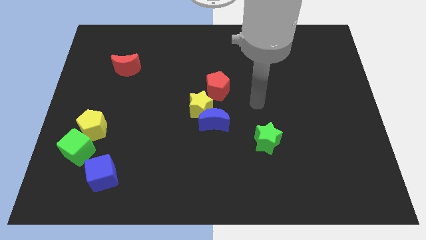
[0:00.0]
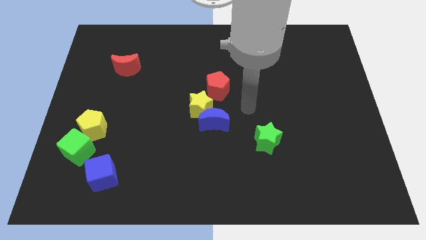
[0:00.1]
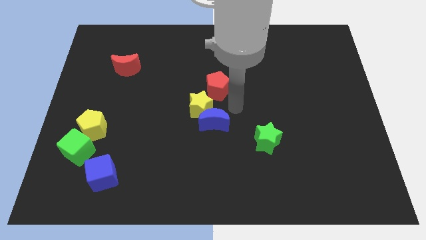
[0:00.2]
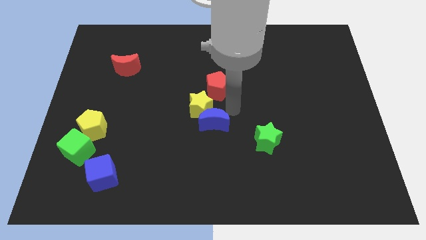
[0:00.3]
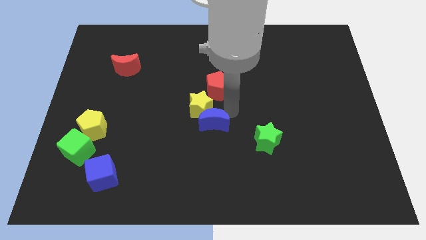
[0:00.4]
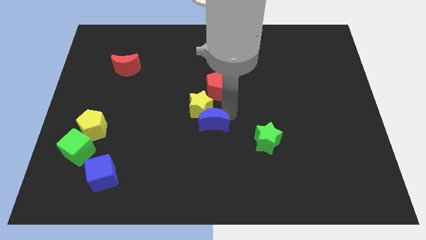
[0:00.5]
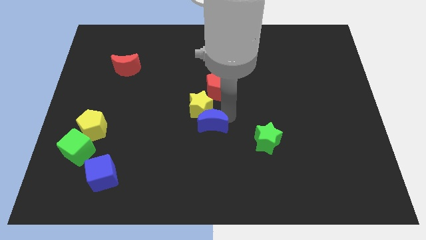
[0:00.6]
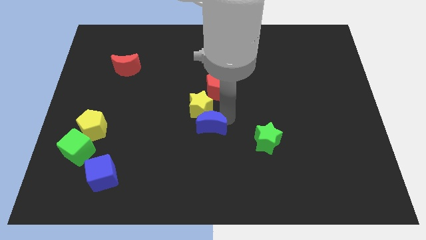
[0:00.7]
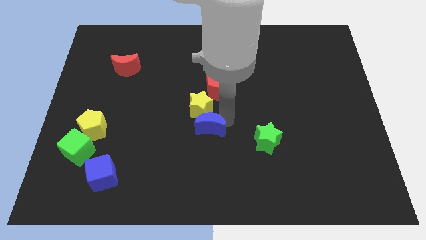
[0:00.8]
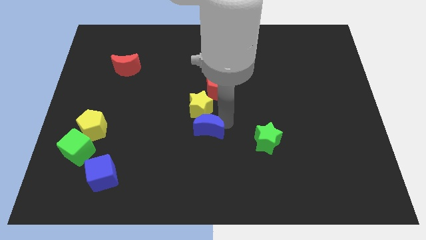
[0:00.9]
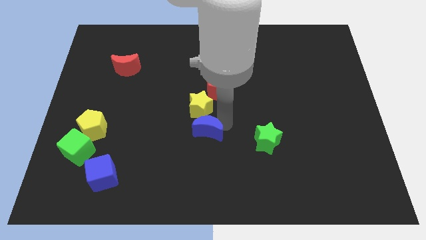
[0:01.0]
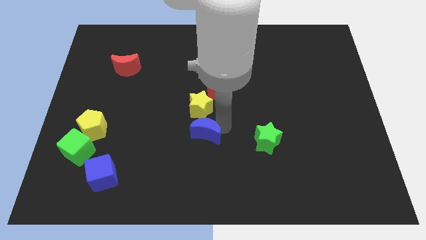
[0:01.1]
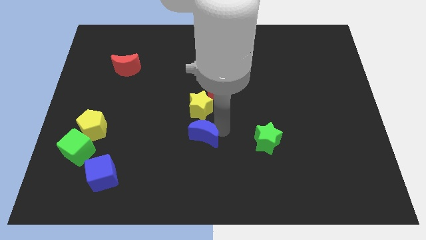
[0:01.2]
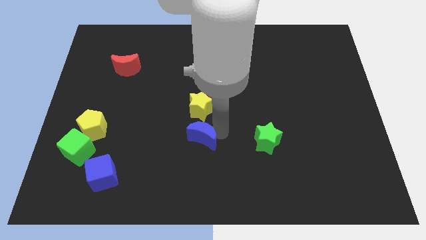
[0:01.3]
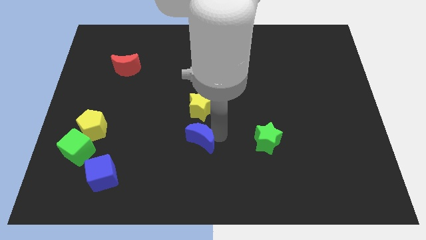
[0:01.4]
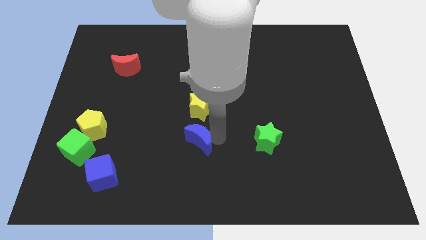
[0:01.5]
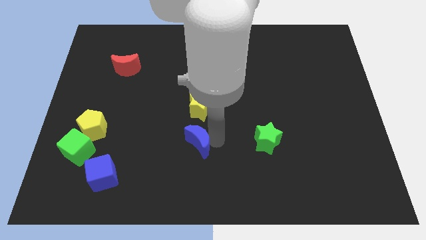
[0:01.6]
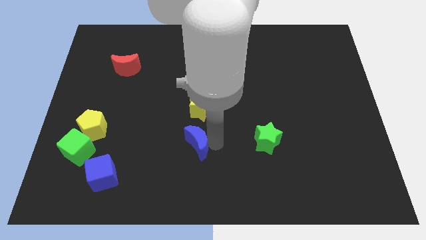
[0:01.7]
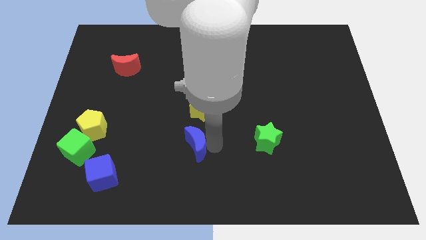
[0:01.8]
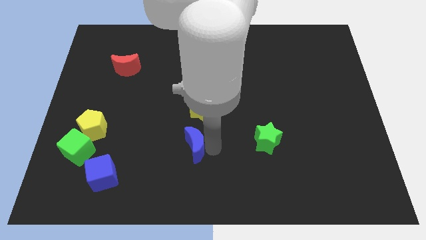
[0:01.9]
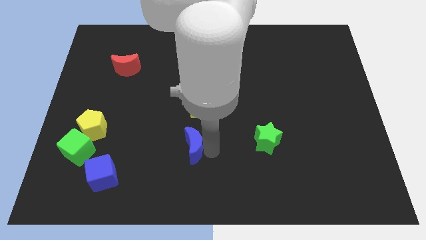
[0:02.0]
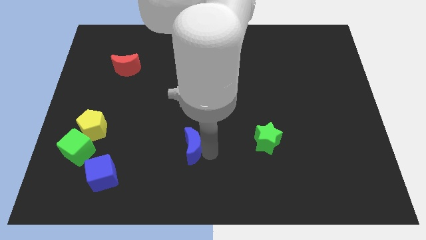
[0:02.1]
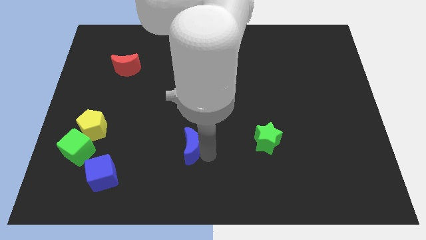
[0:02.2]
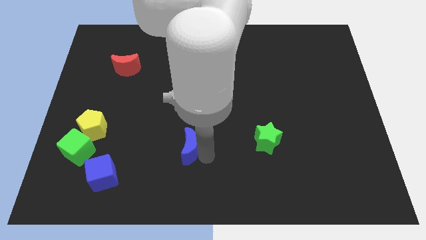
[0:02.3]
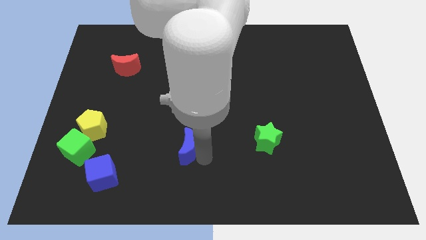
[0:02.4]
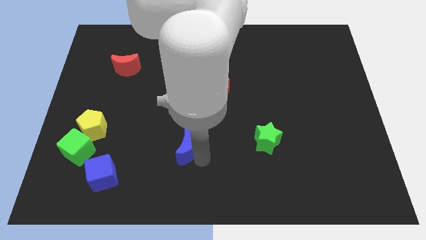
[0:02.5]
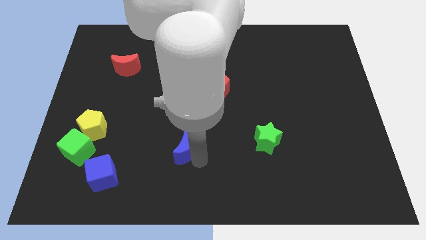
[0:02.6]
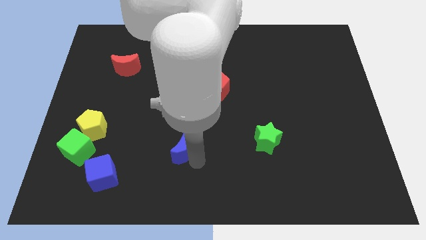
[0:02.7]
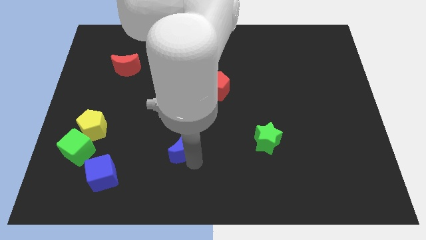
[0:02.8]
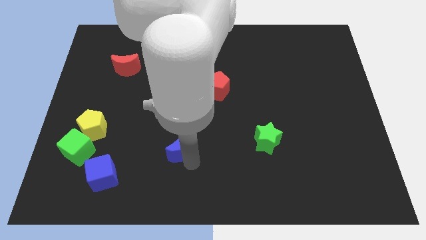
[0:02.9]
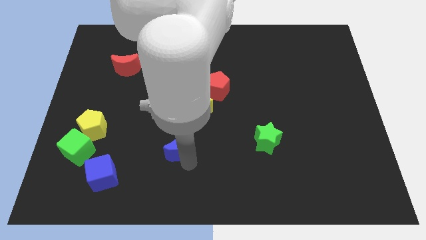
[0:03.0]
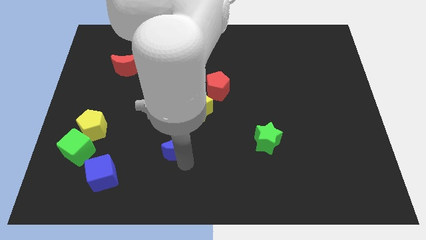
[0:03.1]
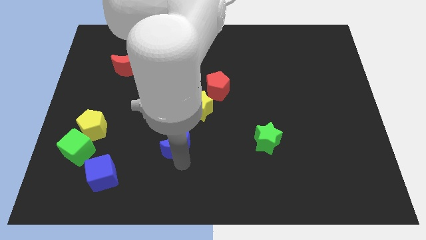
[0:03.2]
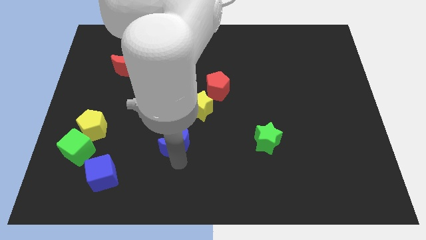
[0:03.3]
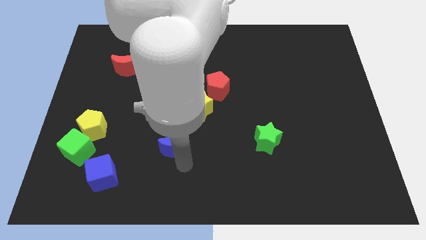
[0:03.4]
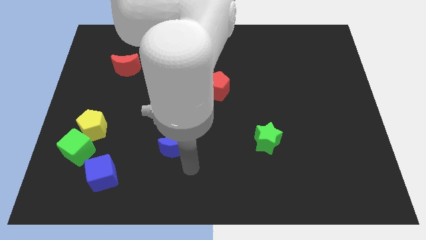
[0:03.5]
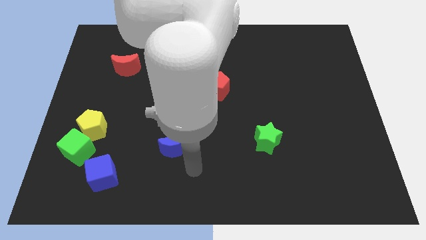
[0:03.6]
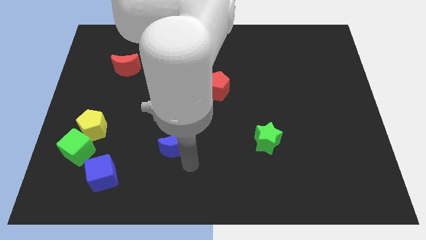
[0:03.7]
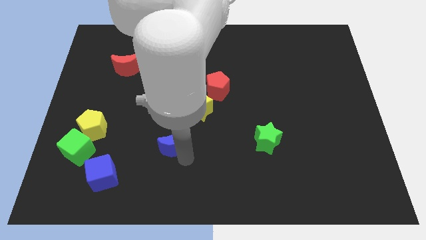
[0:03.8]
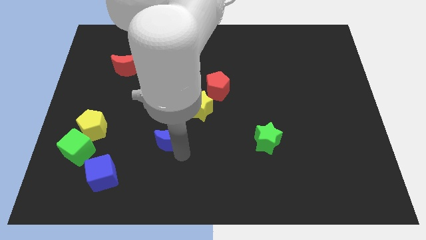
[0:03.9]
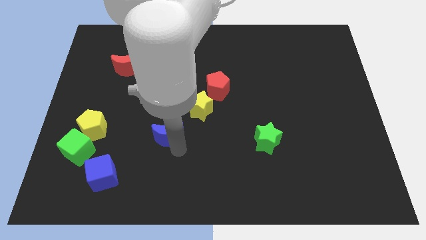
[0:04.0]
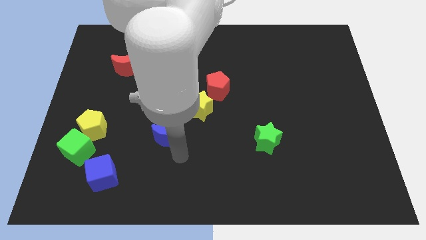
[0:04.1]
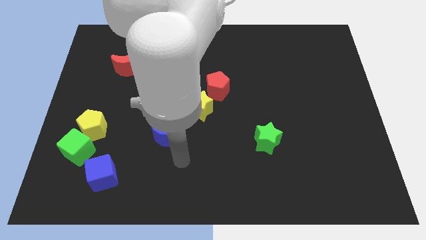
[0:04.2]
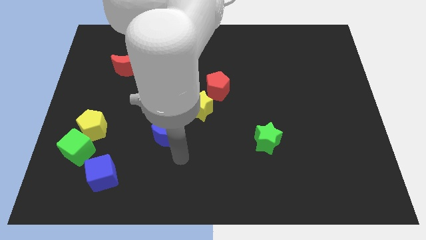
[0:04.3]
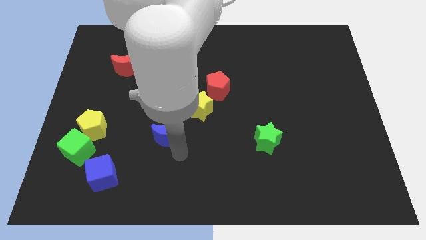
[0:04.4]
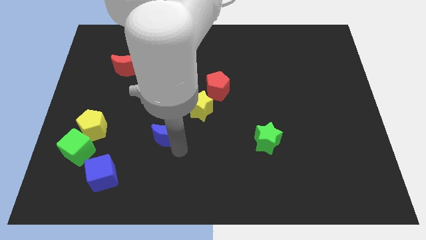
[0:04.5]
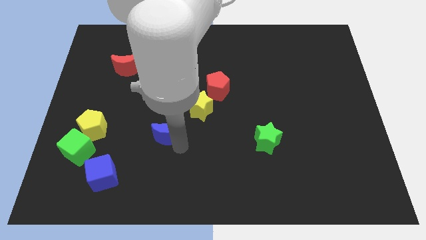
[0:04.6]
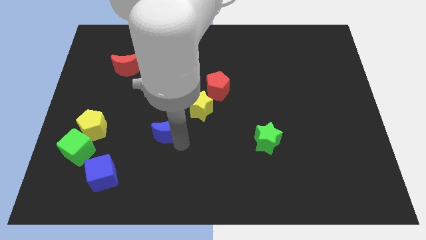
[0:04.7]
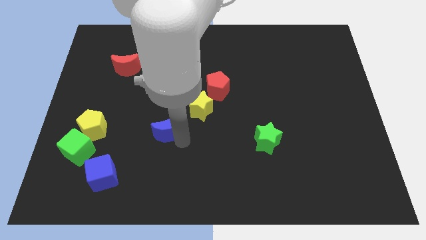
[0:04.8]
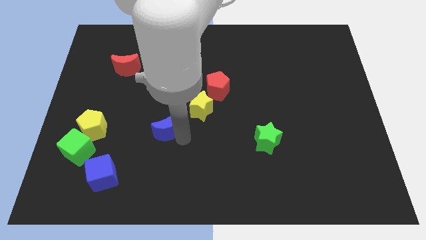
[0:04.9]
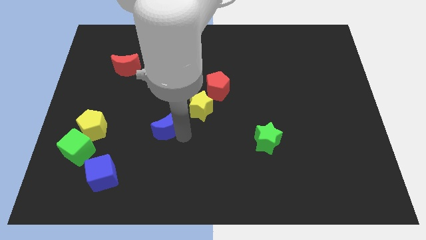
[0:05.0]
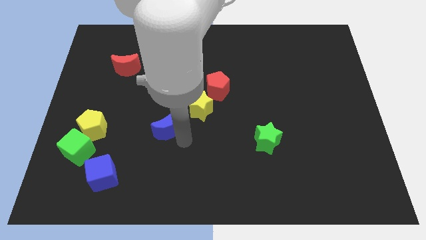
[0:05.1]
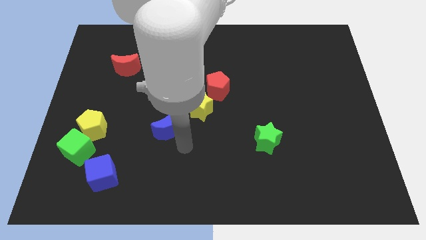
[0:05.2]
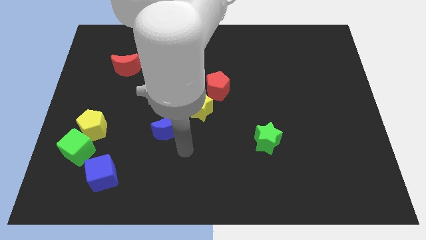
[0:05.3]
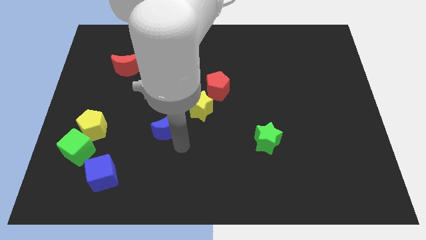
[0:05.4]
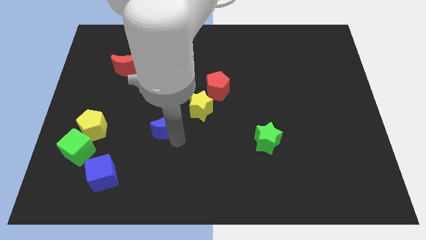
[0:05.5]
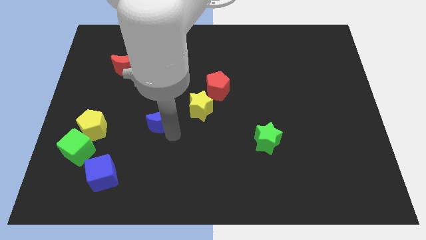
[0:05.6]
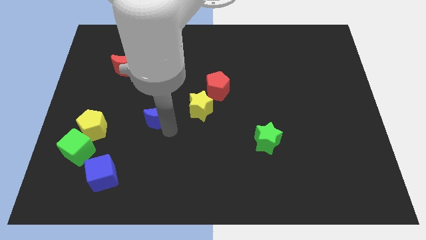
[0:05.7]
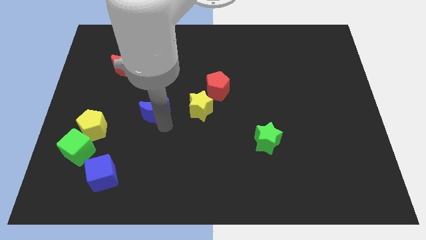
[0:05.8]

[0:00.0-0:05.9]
slightly slide the blue moon up and to the left

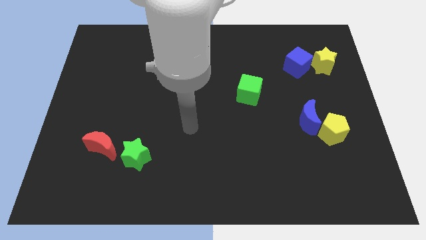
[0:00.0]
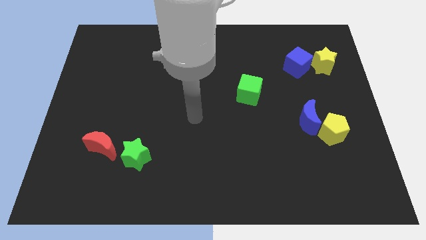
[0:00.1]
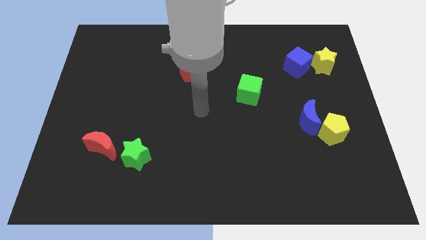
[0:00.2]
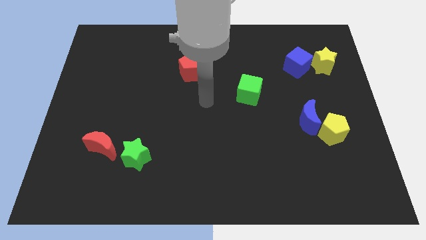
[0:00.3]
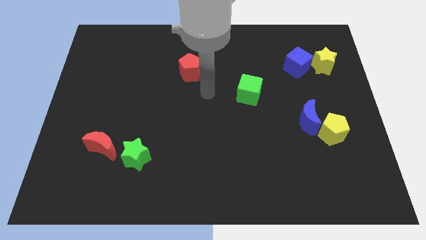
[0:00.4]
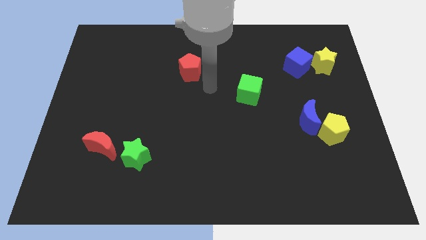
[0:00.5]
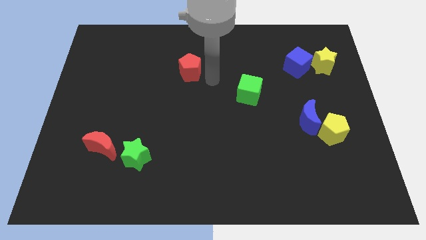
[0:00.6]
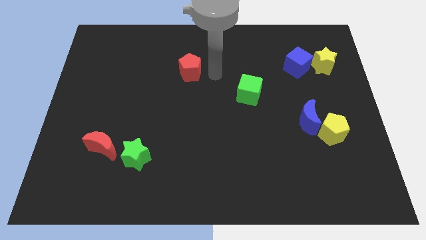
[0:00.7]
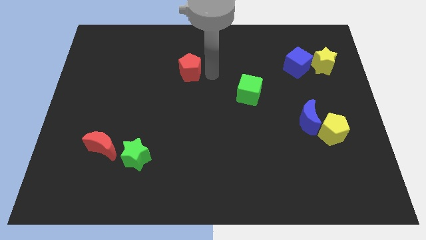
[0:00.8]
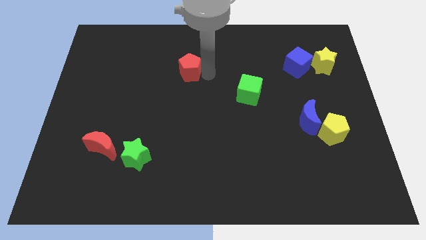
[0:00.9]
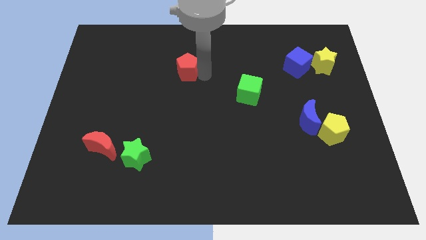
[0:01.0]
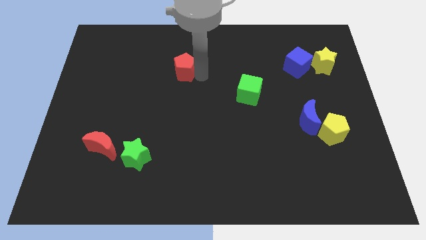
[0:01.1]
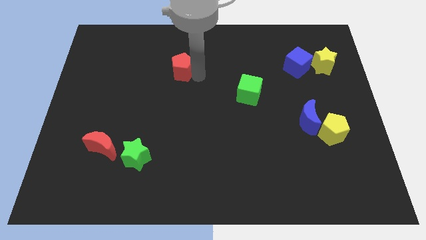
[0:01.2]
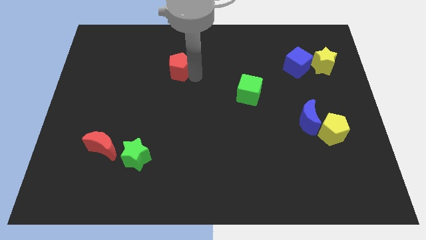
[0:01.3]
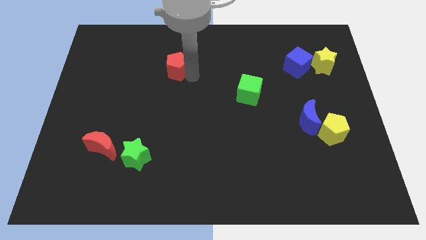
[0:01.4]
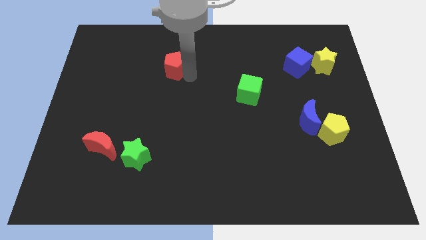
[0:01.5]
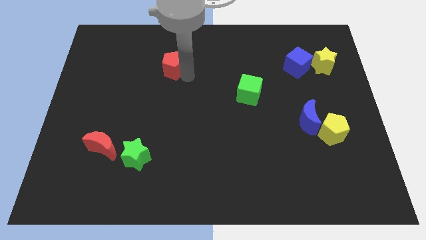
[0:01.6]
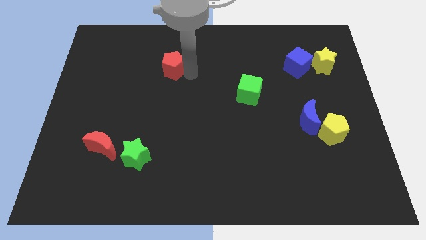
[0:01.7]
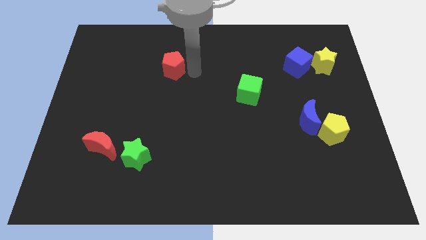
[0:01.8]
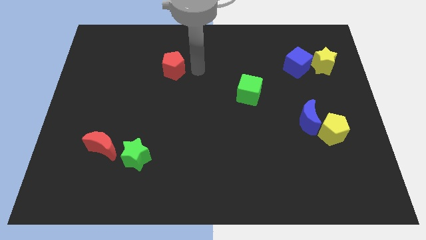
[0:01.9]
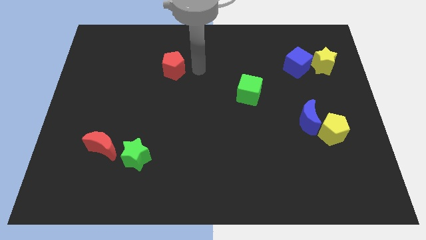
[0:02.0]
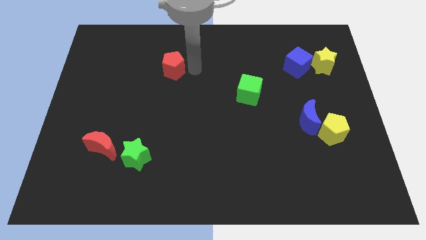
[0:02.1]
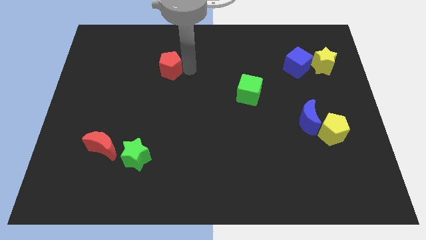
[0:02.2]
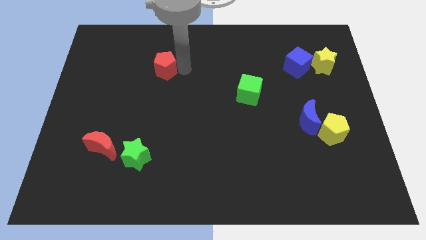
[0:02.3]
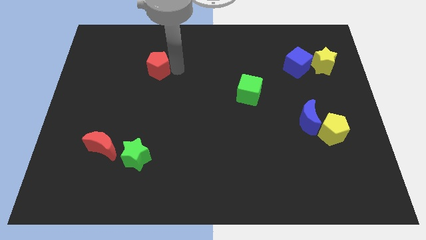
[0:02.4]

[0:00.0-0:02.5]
slide the red pentagon left slightly
